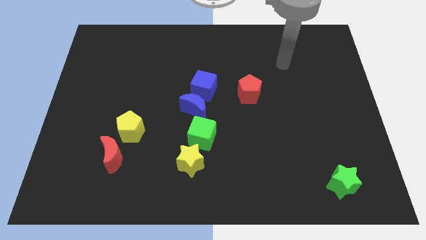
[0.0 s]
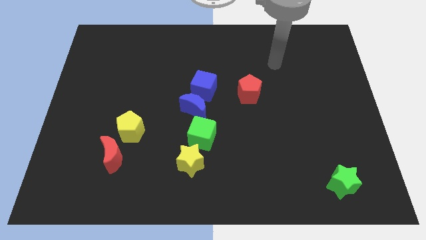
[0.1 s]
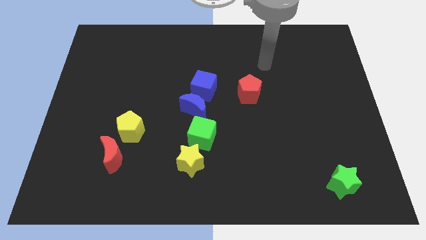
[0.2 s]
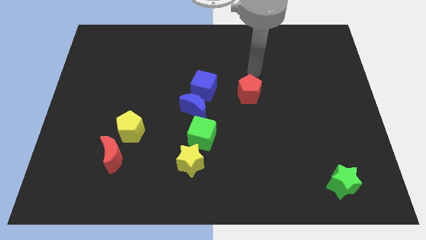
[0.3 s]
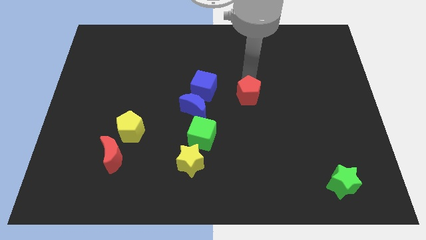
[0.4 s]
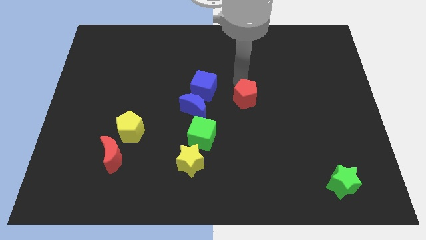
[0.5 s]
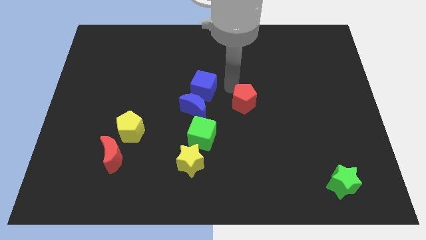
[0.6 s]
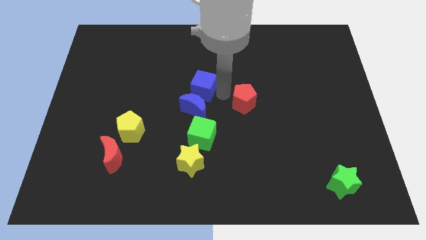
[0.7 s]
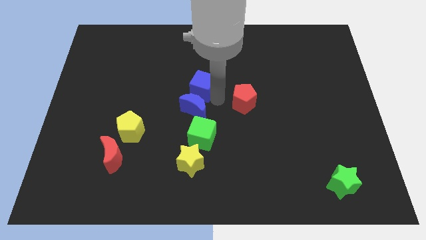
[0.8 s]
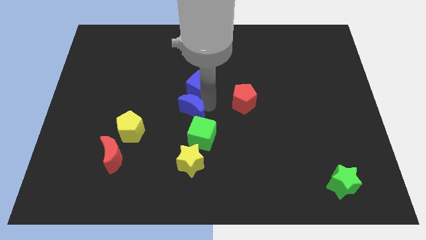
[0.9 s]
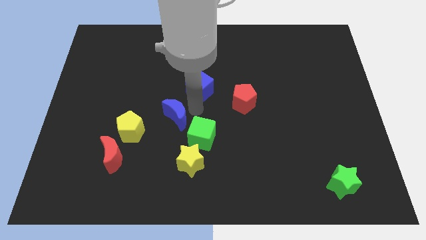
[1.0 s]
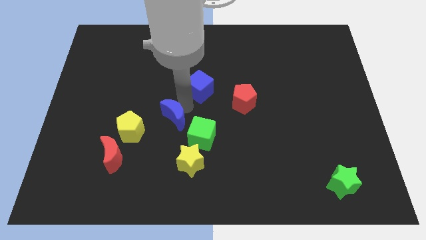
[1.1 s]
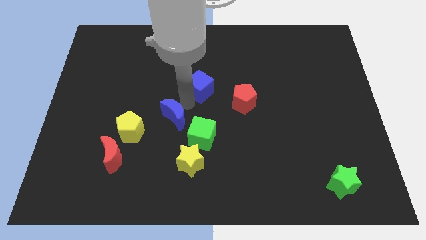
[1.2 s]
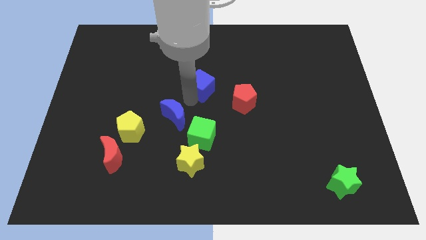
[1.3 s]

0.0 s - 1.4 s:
move the blue cube away from the blue moon

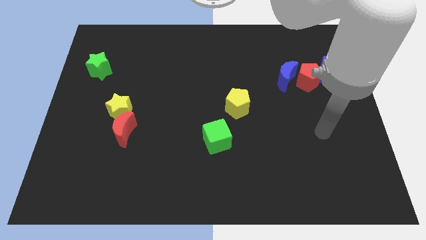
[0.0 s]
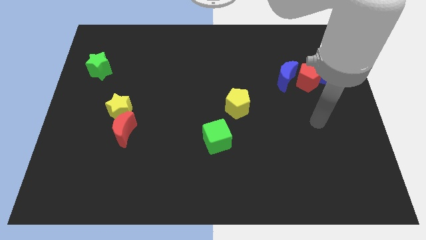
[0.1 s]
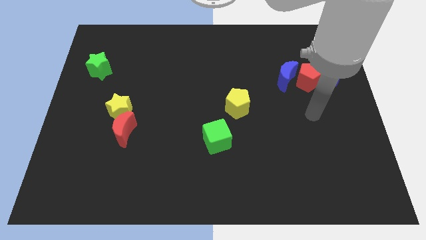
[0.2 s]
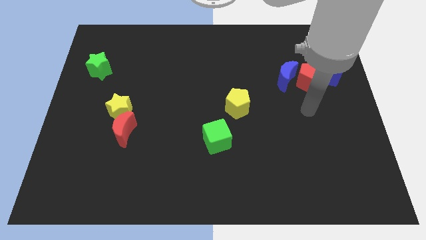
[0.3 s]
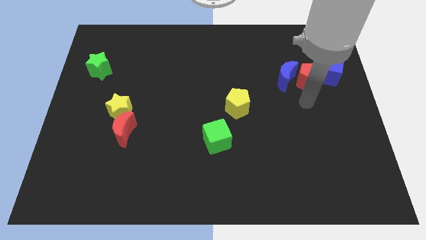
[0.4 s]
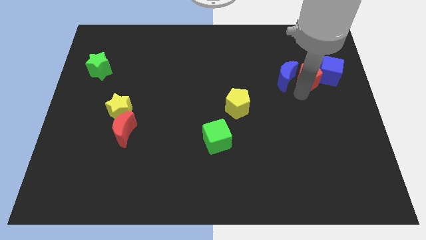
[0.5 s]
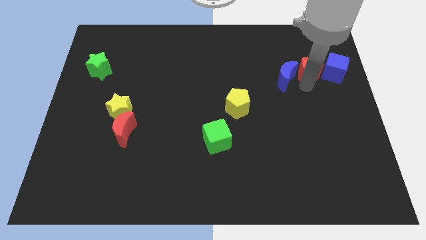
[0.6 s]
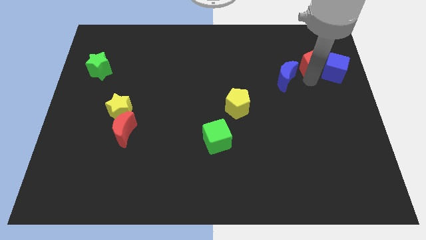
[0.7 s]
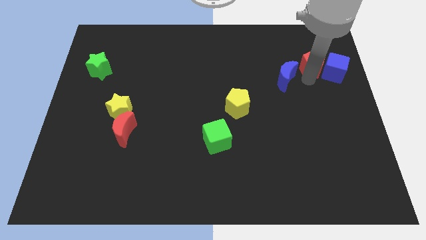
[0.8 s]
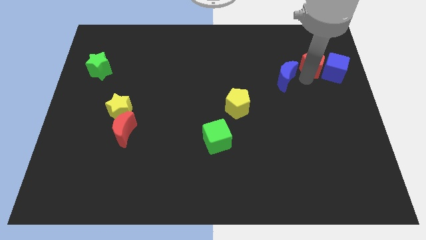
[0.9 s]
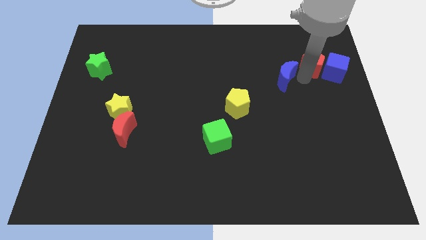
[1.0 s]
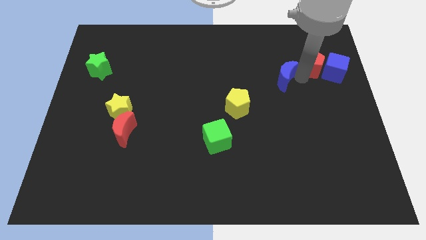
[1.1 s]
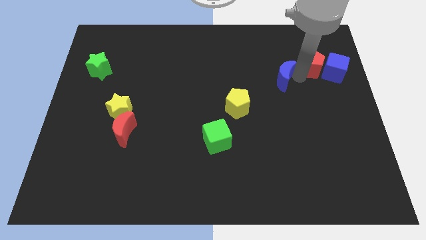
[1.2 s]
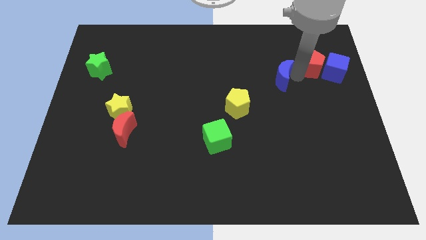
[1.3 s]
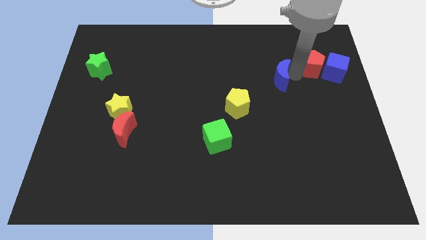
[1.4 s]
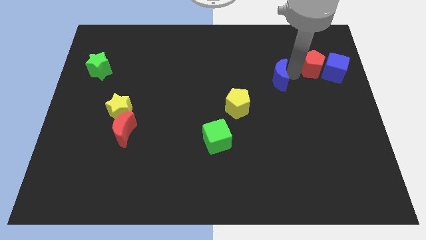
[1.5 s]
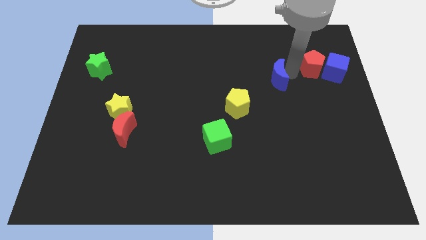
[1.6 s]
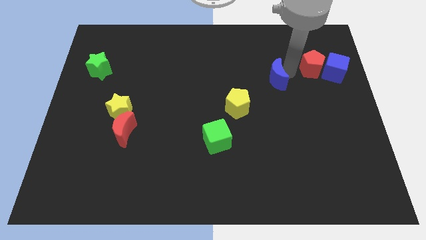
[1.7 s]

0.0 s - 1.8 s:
pull the blue moon apart from the red pentagon

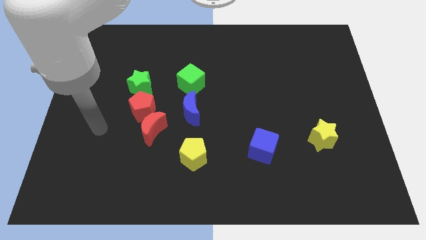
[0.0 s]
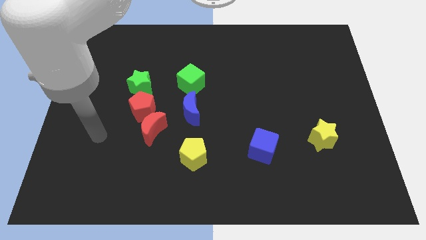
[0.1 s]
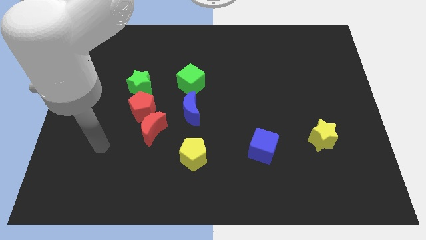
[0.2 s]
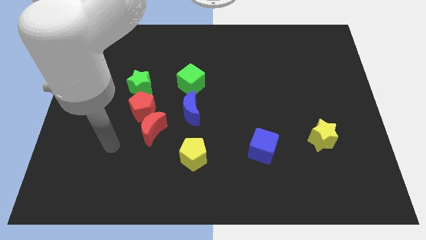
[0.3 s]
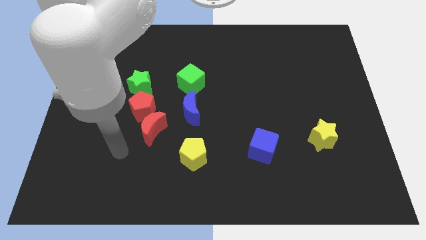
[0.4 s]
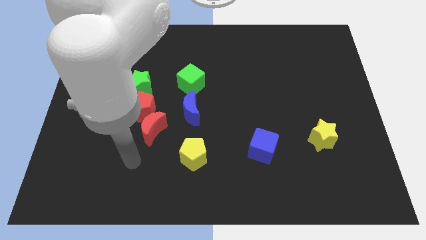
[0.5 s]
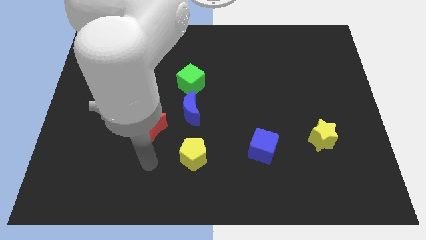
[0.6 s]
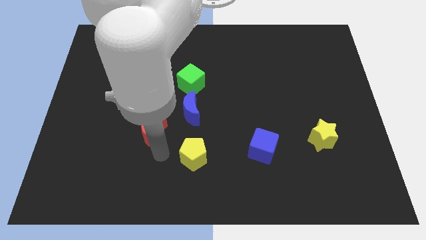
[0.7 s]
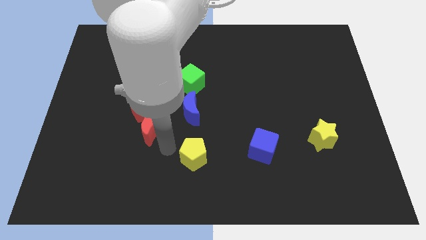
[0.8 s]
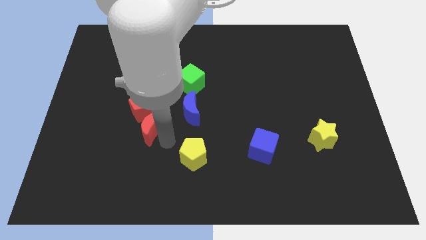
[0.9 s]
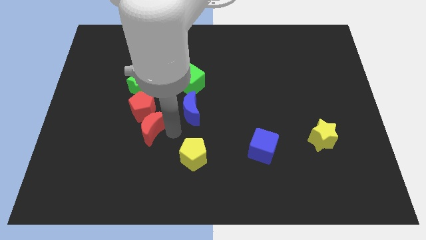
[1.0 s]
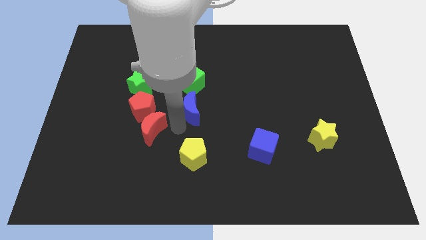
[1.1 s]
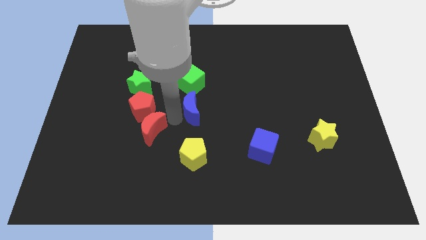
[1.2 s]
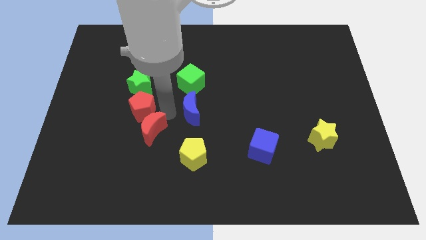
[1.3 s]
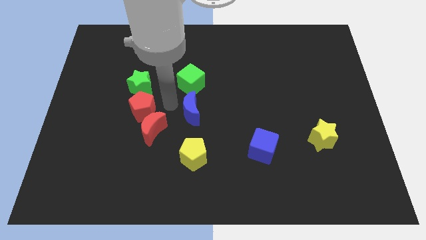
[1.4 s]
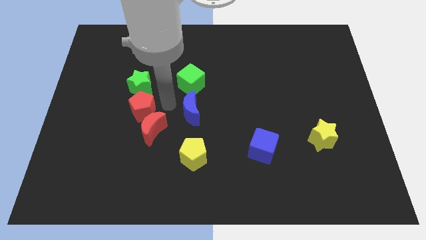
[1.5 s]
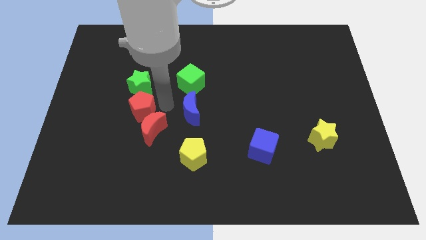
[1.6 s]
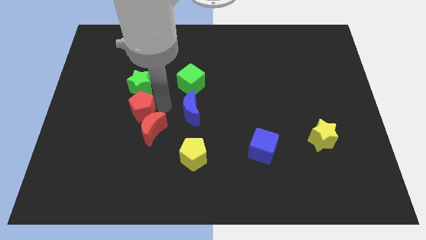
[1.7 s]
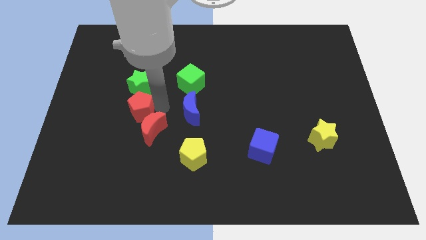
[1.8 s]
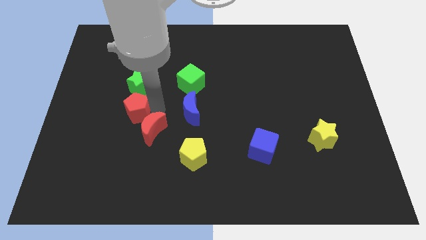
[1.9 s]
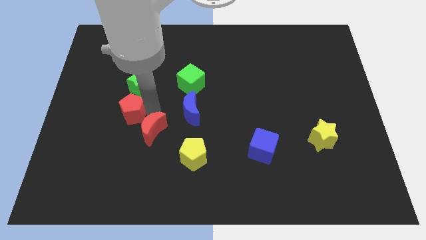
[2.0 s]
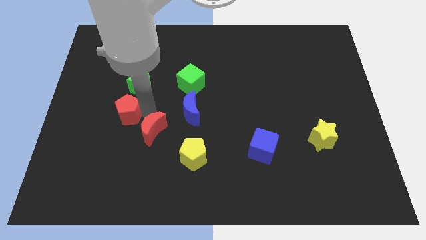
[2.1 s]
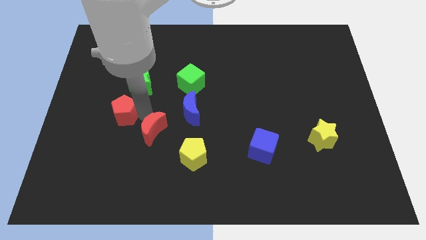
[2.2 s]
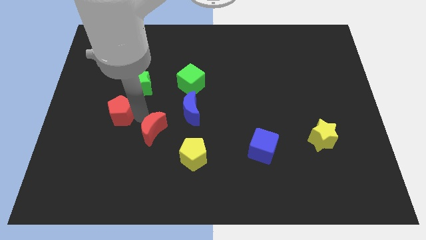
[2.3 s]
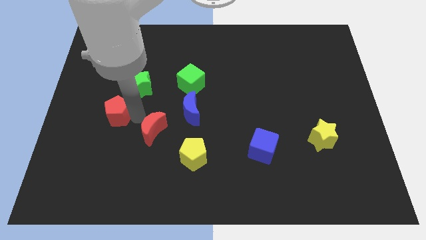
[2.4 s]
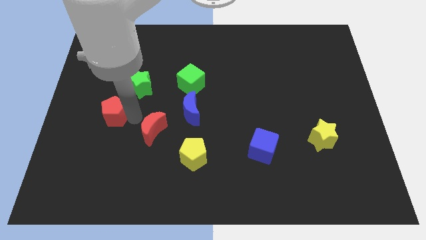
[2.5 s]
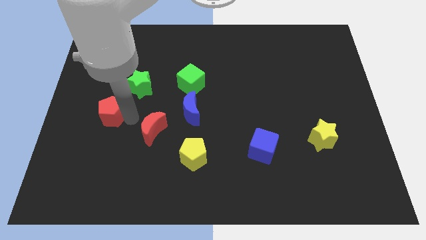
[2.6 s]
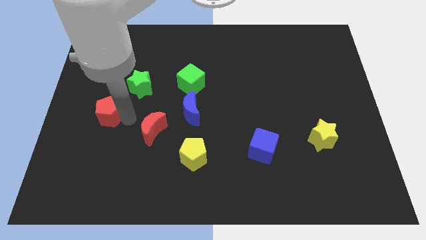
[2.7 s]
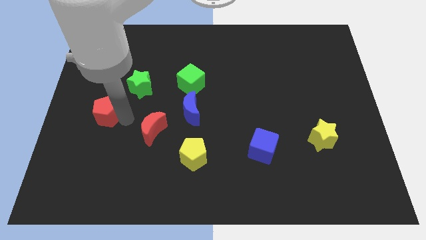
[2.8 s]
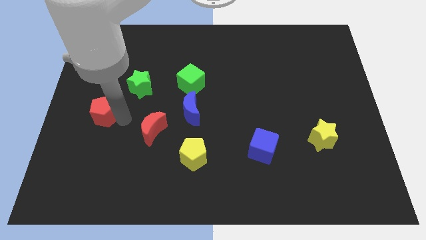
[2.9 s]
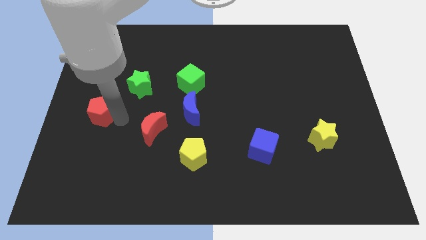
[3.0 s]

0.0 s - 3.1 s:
separate the red pentagon from the red moon and green star

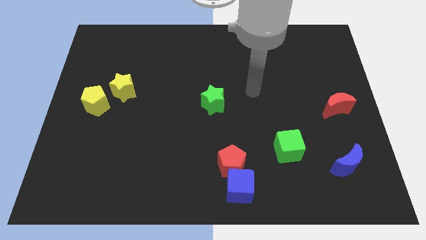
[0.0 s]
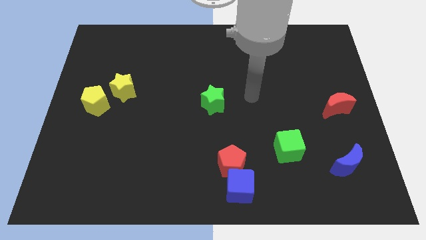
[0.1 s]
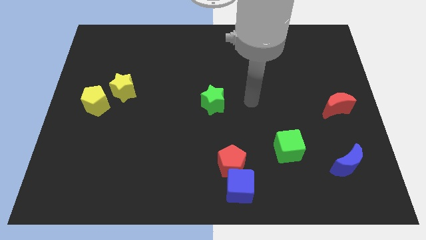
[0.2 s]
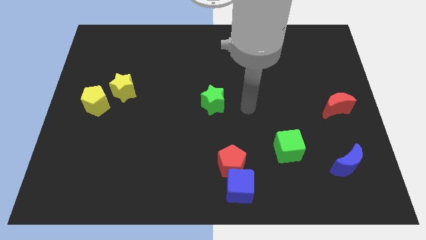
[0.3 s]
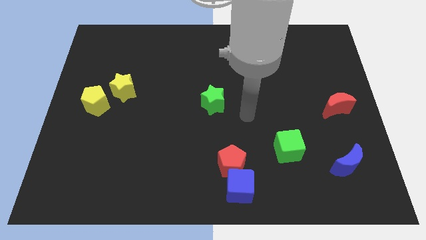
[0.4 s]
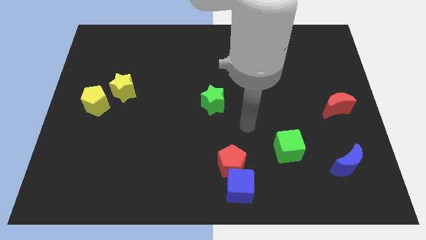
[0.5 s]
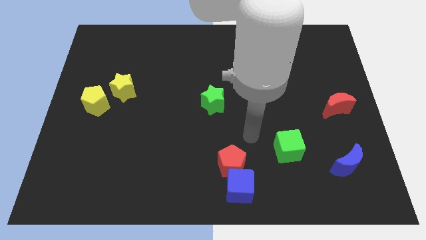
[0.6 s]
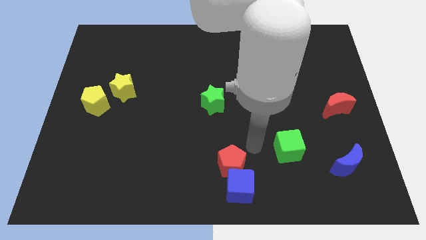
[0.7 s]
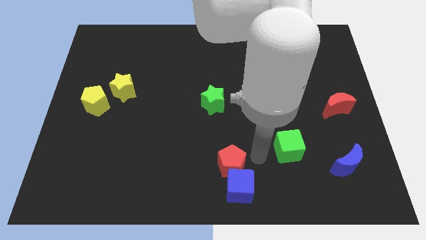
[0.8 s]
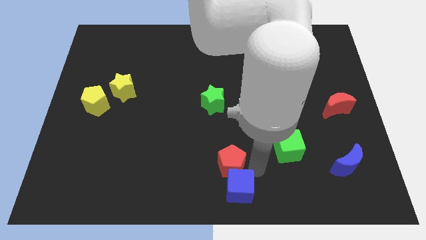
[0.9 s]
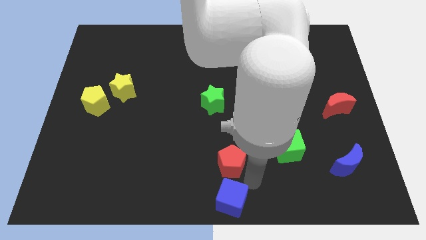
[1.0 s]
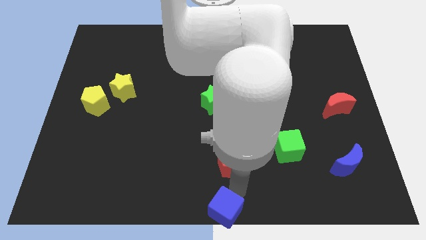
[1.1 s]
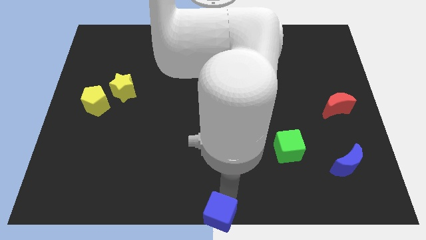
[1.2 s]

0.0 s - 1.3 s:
pull the red pentagon apart from the blue cube

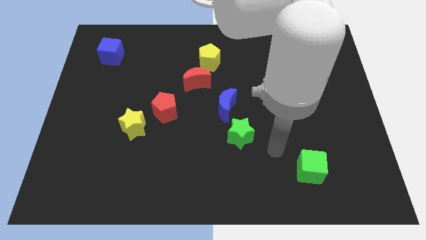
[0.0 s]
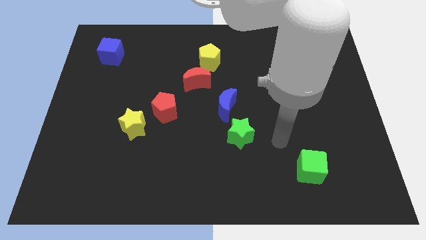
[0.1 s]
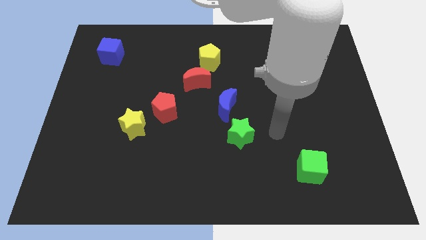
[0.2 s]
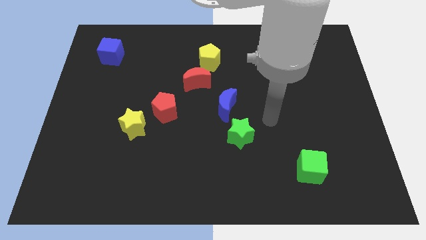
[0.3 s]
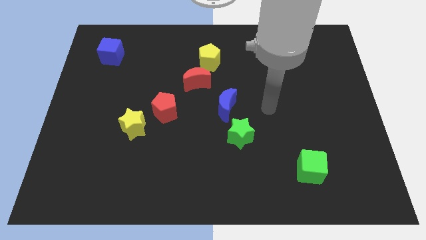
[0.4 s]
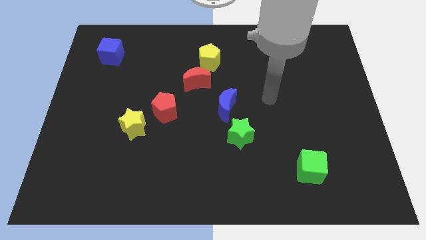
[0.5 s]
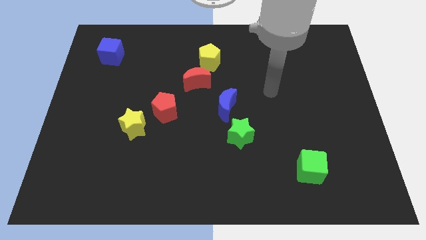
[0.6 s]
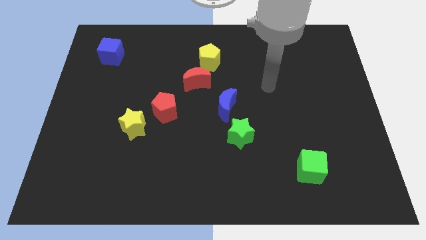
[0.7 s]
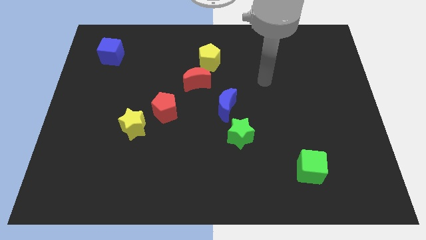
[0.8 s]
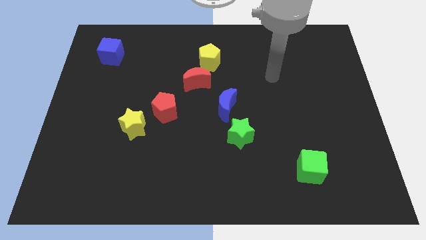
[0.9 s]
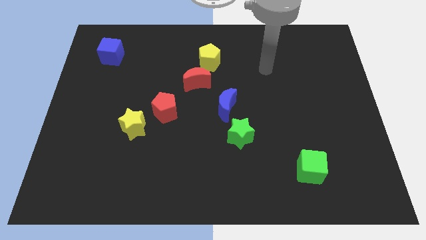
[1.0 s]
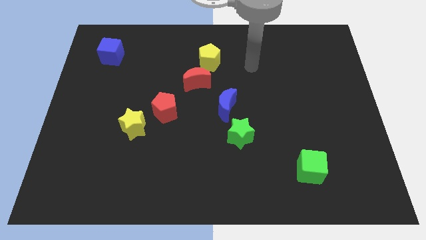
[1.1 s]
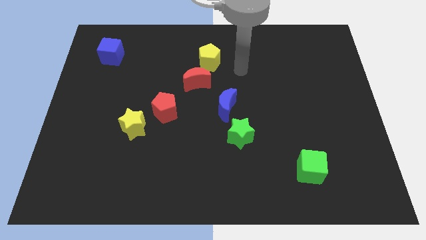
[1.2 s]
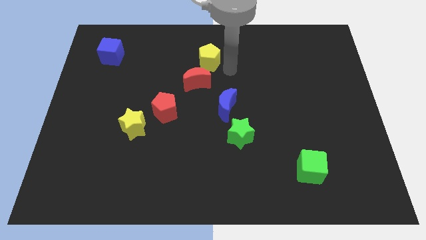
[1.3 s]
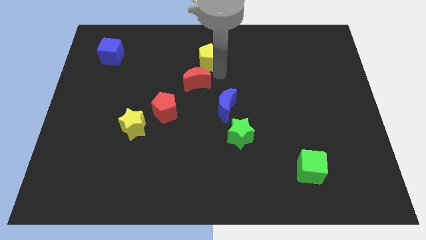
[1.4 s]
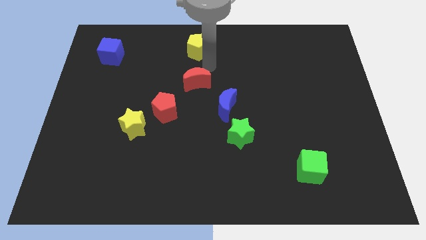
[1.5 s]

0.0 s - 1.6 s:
pull the red moon apart from the yellow pentagon
